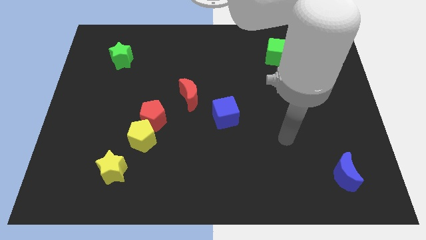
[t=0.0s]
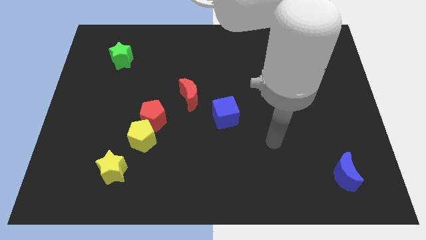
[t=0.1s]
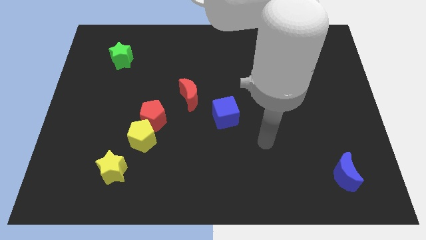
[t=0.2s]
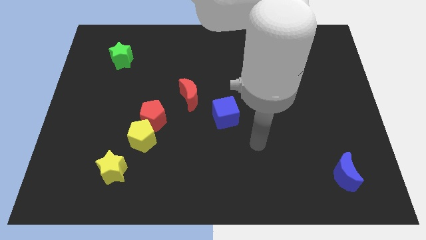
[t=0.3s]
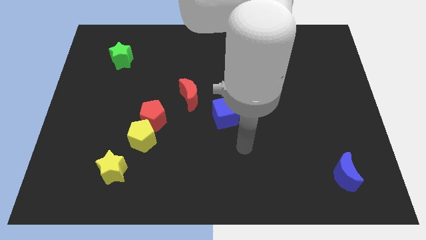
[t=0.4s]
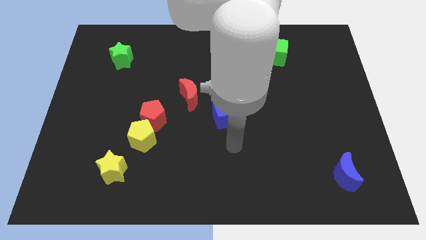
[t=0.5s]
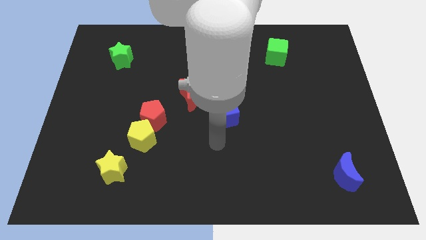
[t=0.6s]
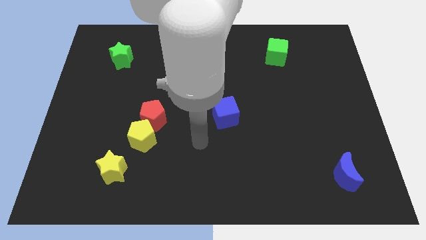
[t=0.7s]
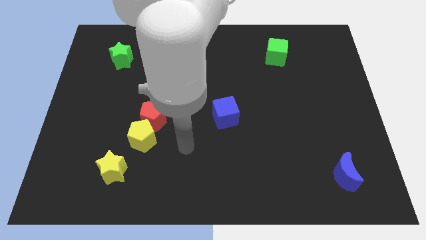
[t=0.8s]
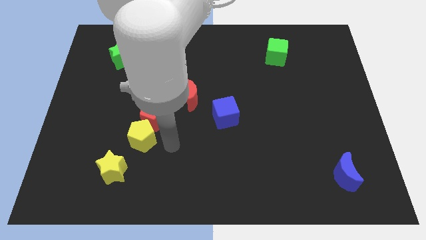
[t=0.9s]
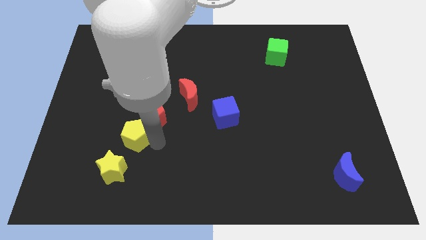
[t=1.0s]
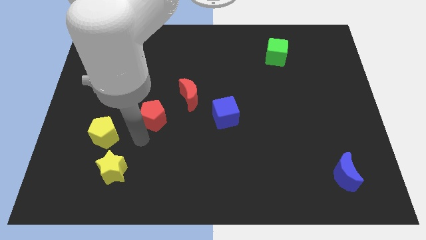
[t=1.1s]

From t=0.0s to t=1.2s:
pull the red pentagon apart from the yellow pentagon

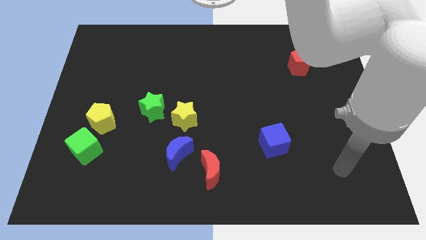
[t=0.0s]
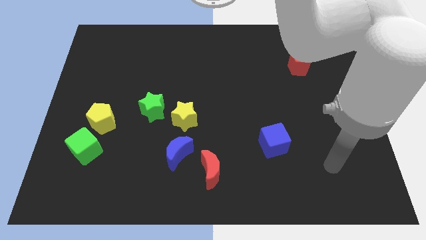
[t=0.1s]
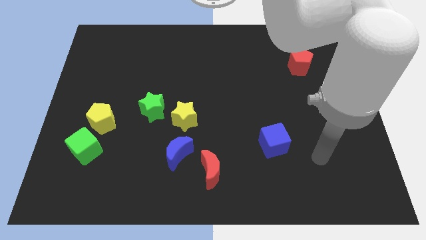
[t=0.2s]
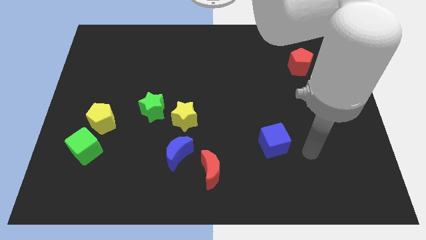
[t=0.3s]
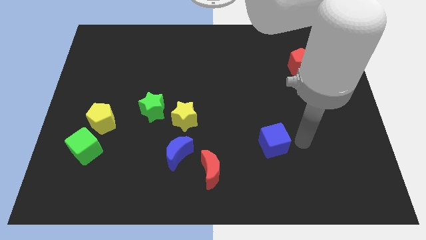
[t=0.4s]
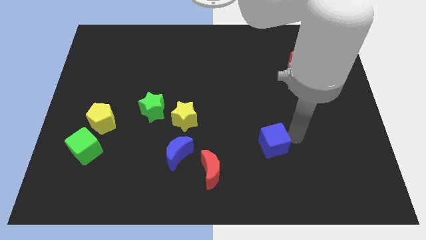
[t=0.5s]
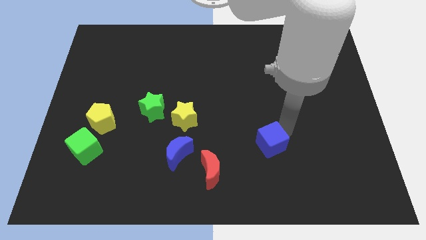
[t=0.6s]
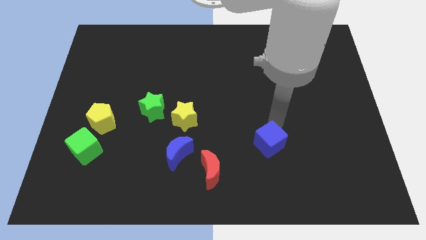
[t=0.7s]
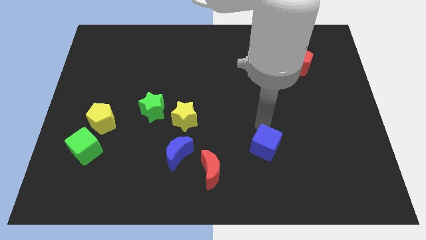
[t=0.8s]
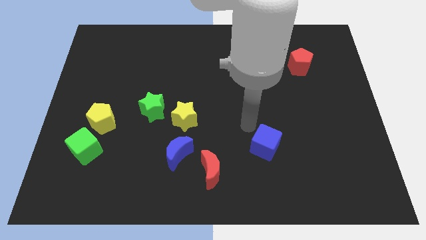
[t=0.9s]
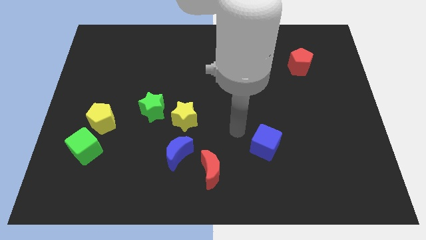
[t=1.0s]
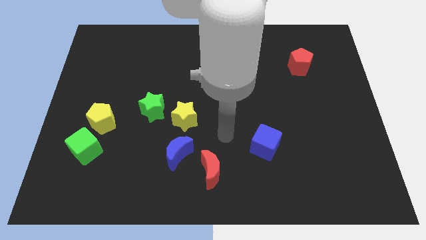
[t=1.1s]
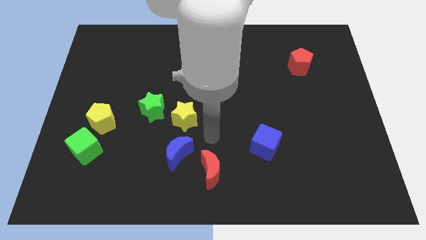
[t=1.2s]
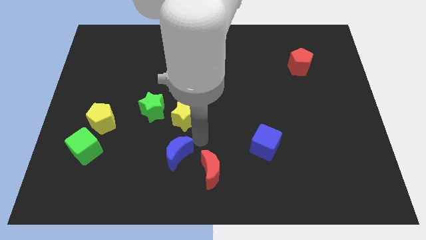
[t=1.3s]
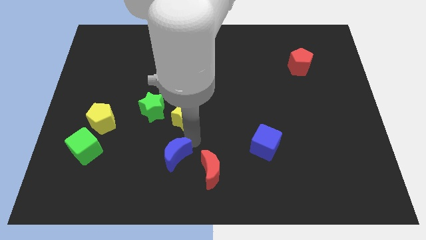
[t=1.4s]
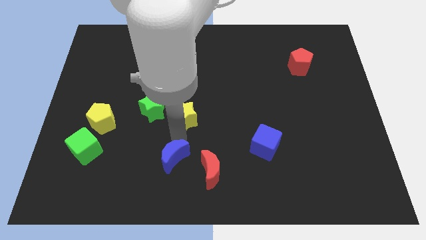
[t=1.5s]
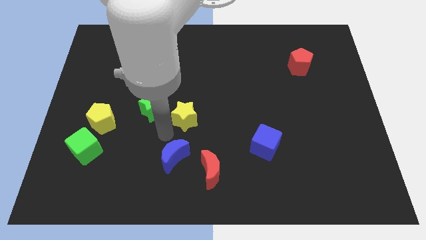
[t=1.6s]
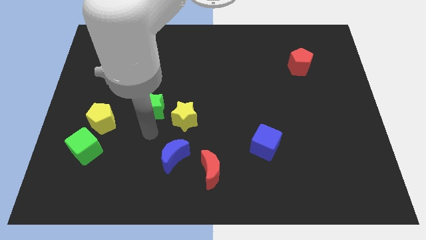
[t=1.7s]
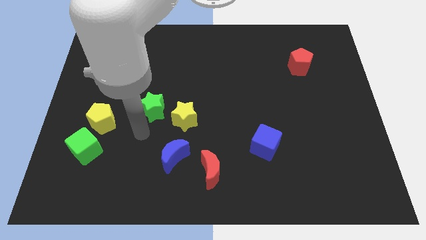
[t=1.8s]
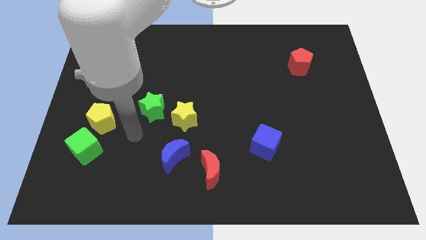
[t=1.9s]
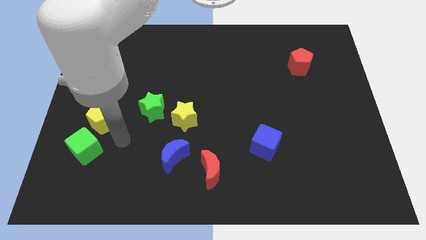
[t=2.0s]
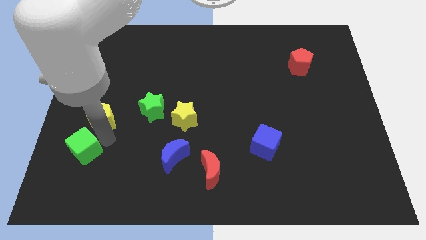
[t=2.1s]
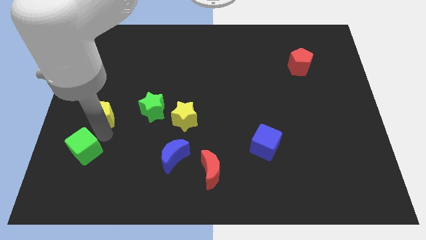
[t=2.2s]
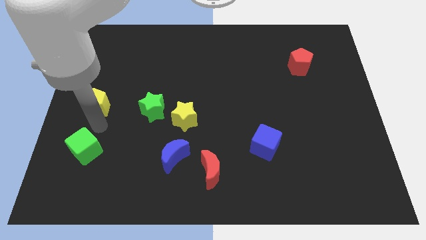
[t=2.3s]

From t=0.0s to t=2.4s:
separate the green cube from the yellow pentagon

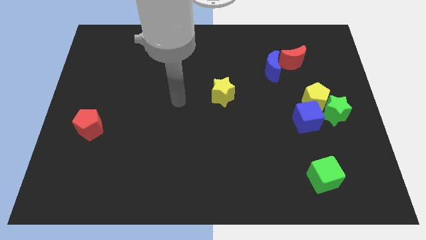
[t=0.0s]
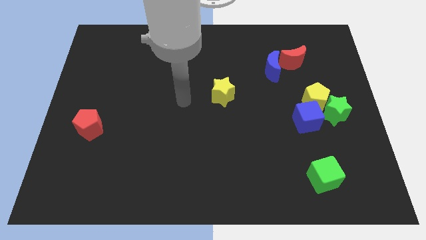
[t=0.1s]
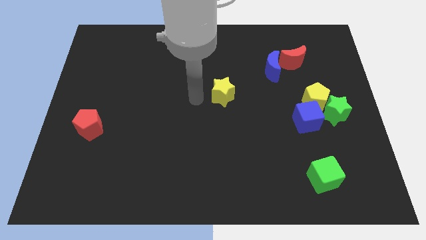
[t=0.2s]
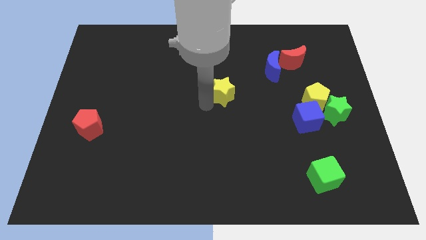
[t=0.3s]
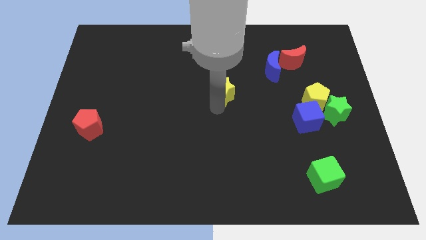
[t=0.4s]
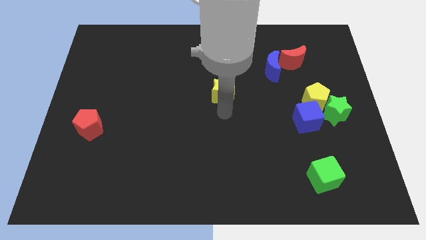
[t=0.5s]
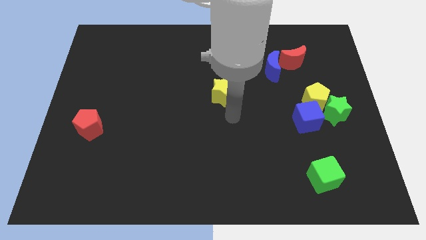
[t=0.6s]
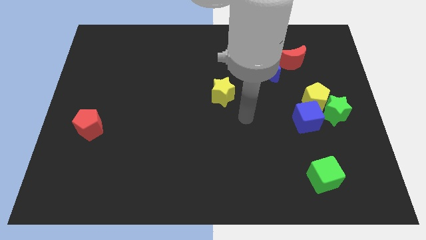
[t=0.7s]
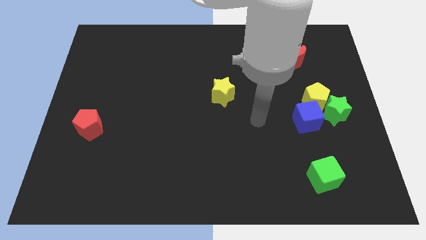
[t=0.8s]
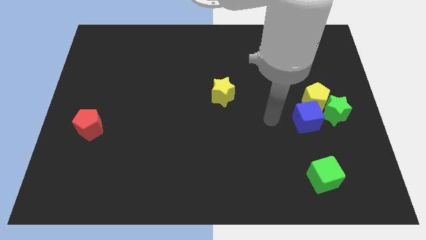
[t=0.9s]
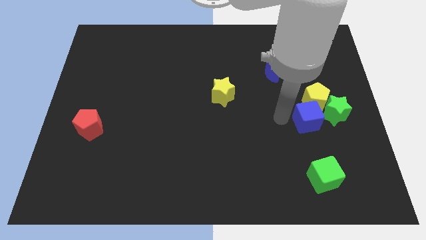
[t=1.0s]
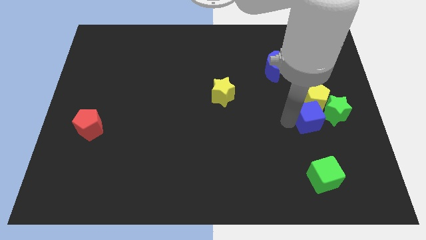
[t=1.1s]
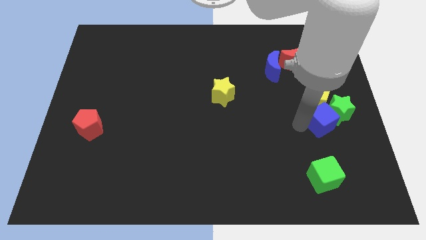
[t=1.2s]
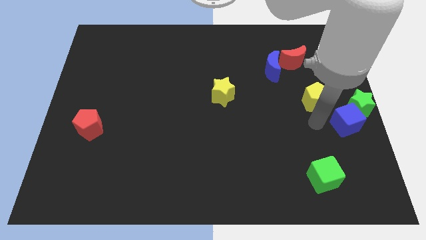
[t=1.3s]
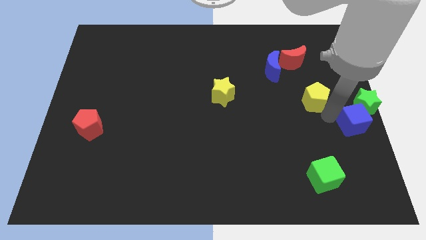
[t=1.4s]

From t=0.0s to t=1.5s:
separate the yellow pentagon from the green star and blue cube

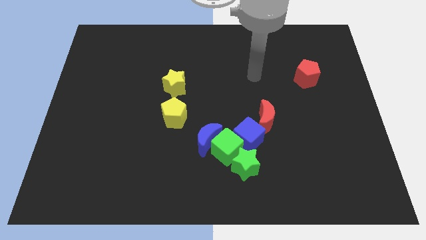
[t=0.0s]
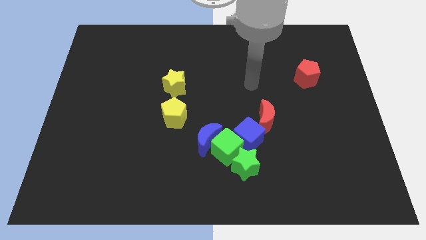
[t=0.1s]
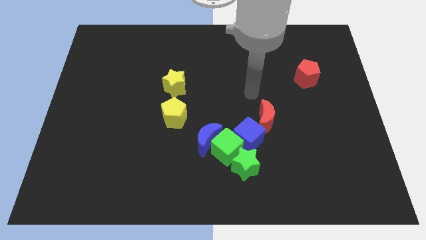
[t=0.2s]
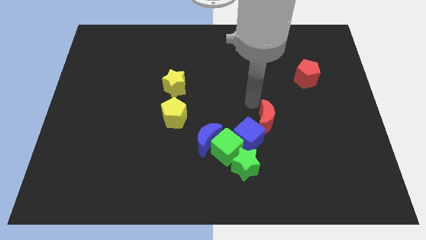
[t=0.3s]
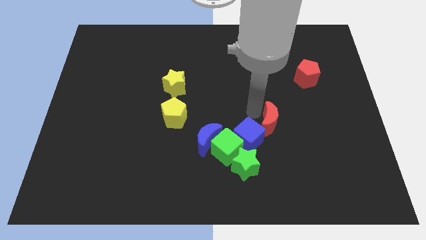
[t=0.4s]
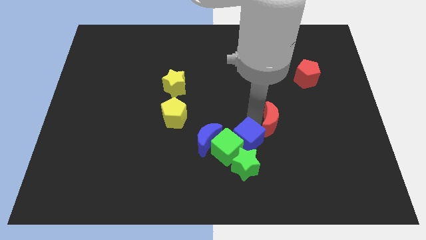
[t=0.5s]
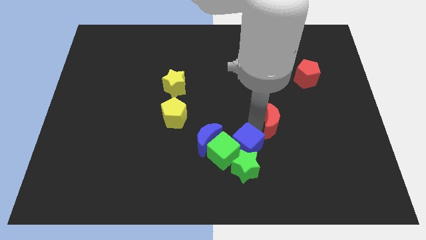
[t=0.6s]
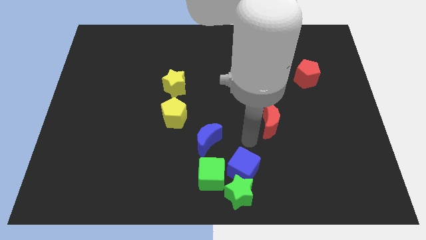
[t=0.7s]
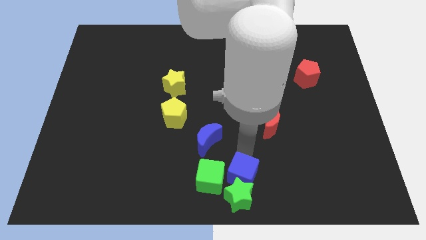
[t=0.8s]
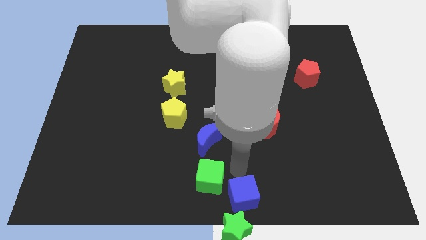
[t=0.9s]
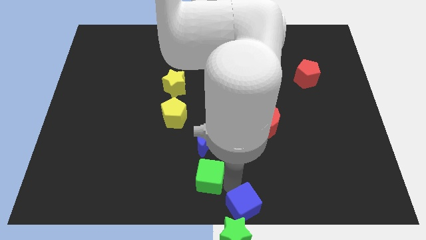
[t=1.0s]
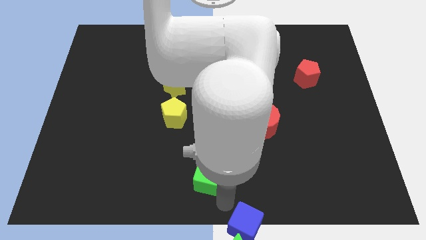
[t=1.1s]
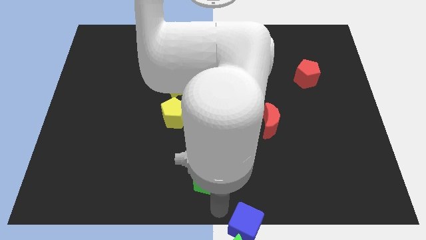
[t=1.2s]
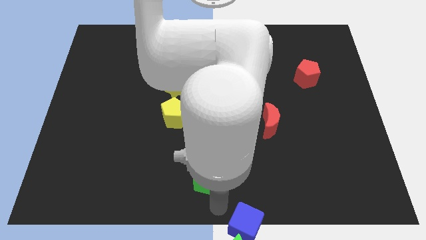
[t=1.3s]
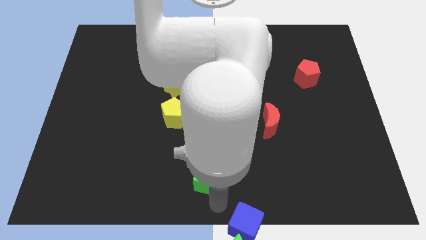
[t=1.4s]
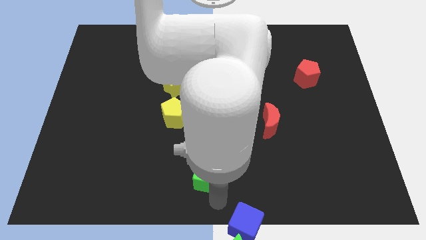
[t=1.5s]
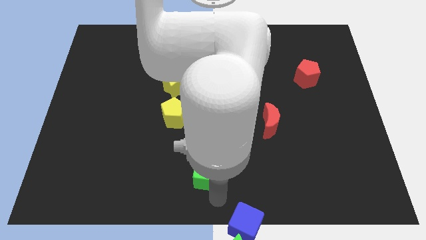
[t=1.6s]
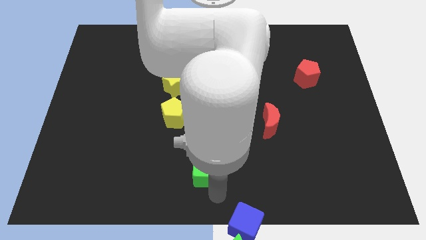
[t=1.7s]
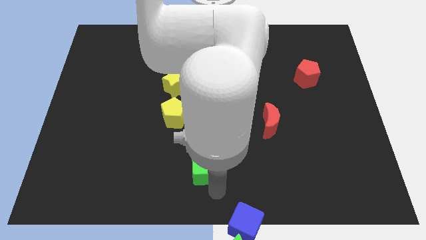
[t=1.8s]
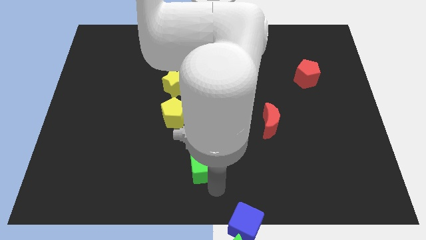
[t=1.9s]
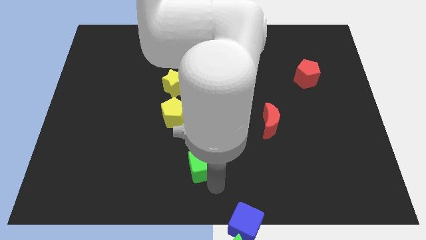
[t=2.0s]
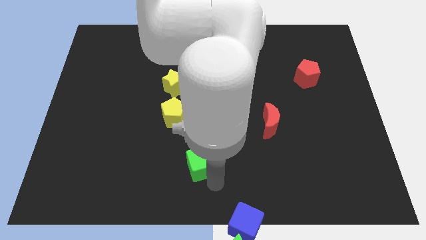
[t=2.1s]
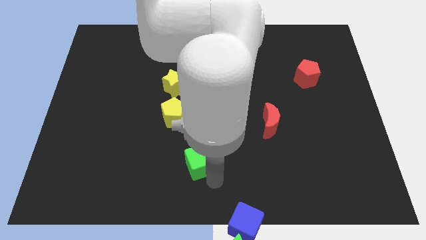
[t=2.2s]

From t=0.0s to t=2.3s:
separate the green cube from the group of blocks

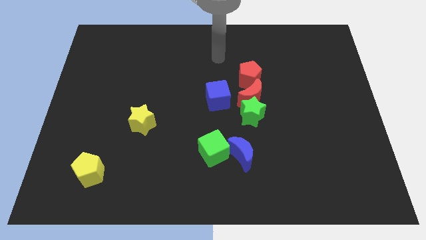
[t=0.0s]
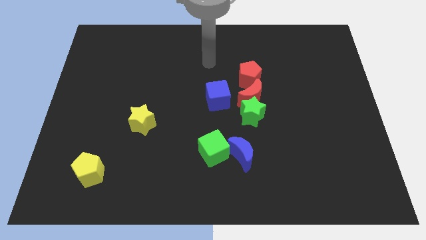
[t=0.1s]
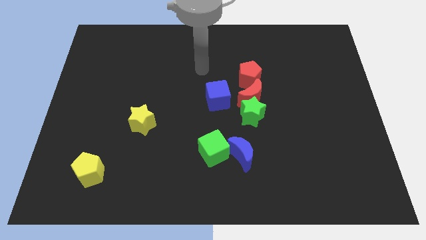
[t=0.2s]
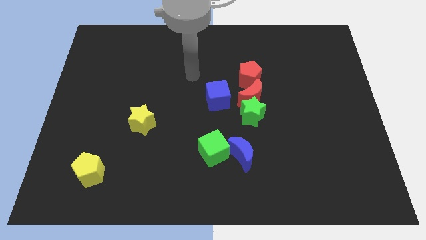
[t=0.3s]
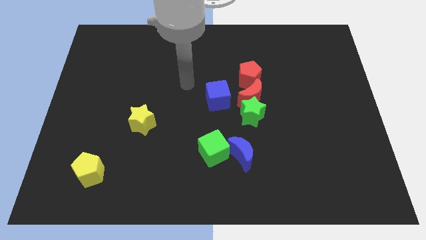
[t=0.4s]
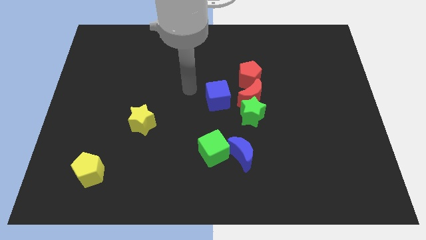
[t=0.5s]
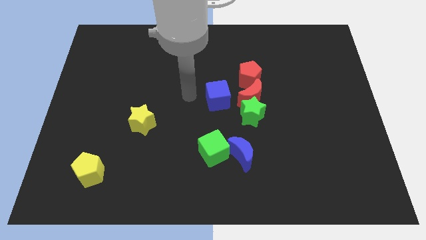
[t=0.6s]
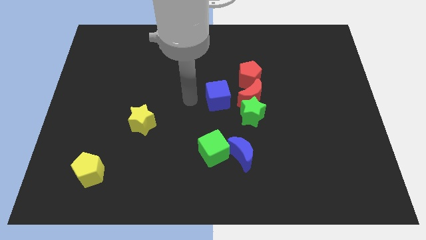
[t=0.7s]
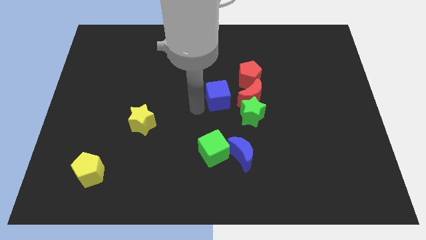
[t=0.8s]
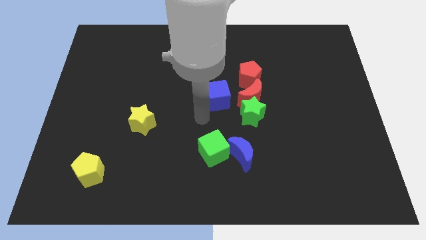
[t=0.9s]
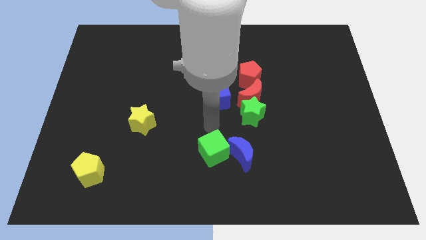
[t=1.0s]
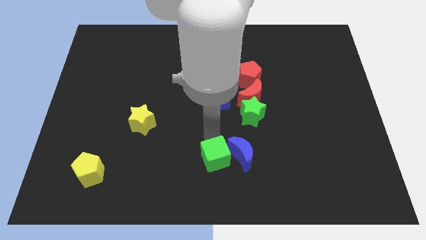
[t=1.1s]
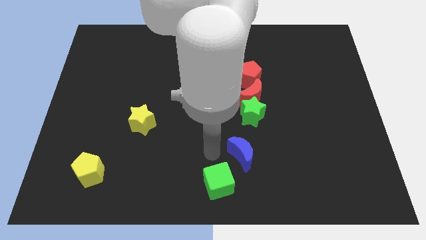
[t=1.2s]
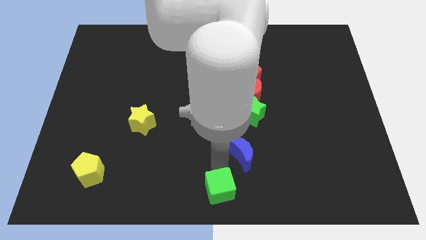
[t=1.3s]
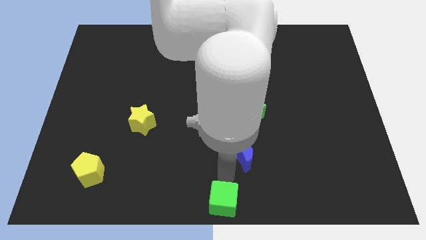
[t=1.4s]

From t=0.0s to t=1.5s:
pull the blue moon apart from the green cube

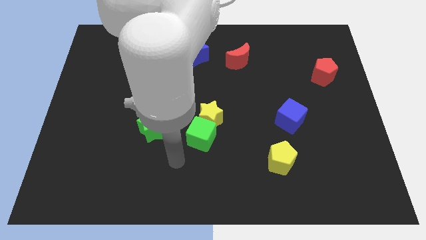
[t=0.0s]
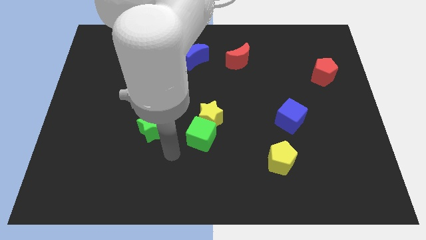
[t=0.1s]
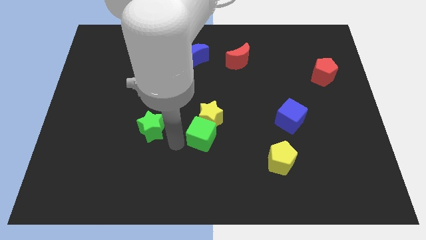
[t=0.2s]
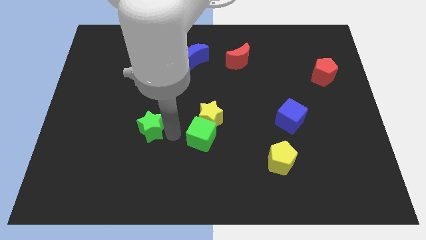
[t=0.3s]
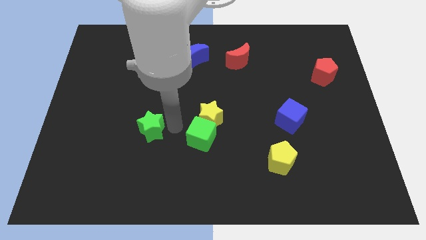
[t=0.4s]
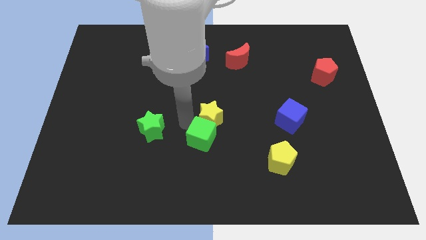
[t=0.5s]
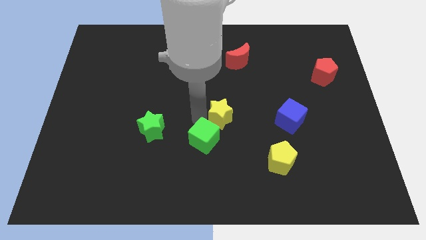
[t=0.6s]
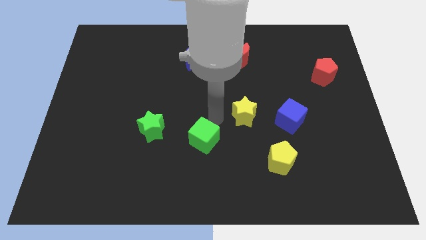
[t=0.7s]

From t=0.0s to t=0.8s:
separate the green cube from the yellow star
